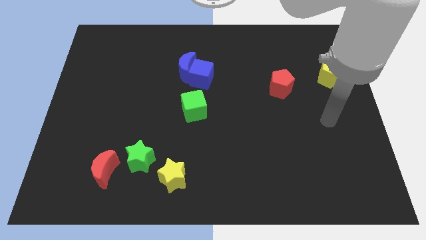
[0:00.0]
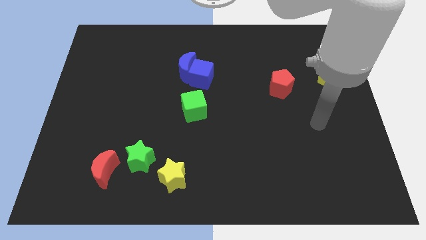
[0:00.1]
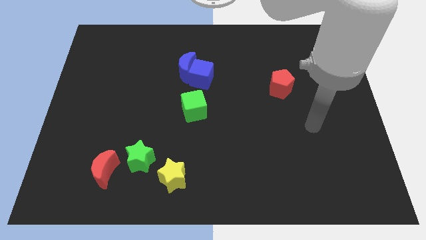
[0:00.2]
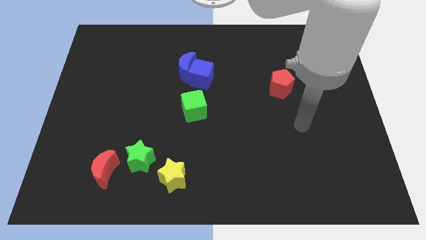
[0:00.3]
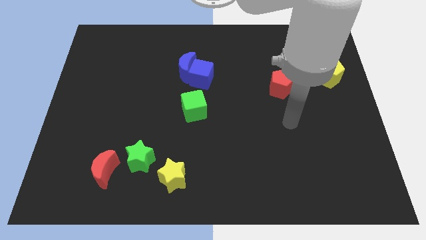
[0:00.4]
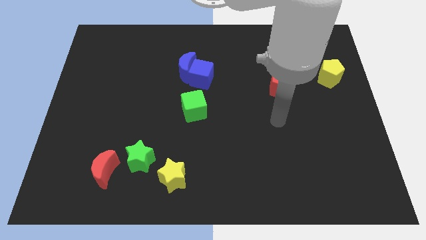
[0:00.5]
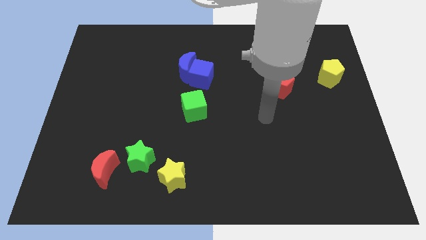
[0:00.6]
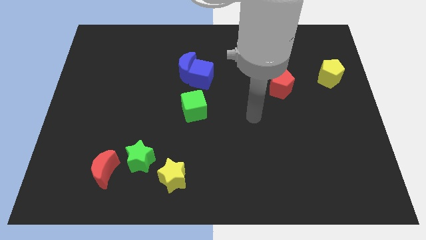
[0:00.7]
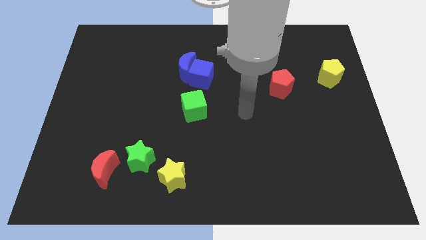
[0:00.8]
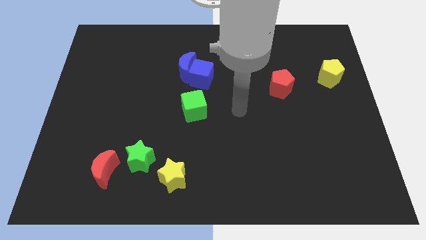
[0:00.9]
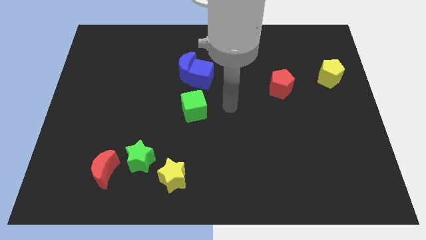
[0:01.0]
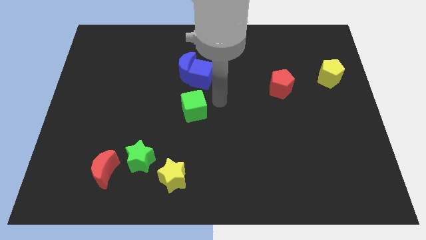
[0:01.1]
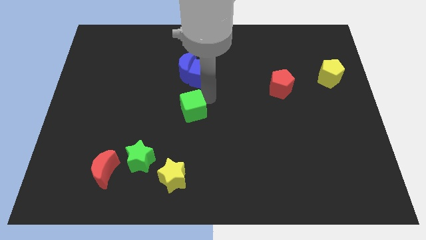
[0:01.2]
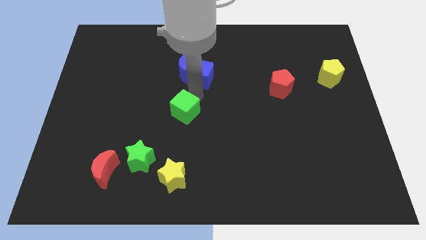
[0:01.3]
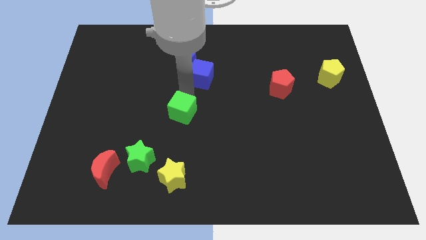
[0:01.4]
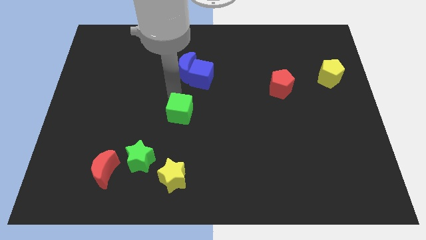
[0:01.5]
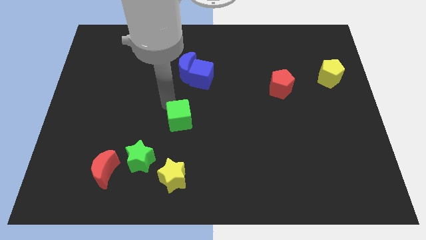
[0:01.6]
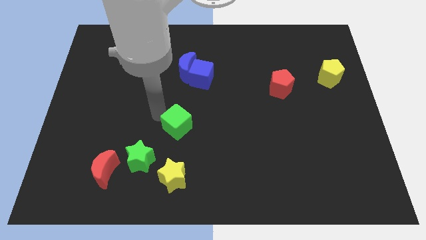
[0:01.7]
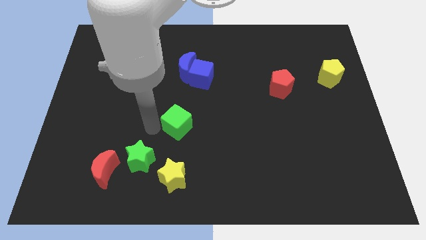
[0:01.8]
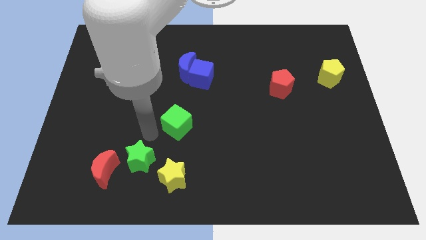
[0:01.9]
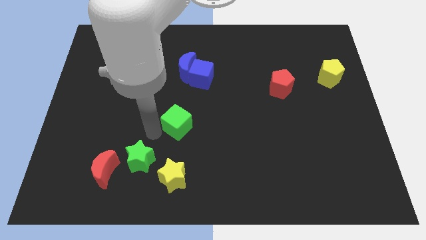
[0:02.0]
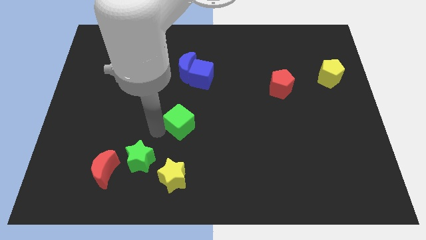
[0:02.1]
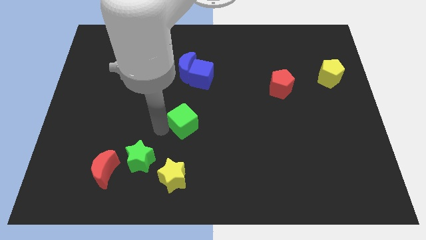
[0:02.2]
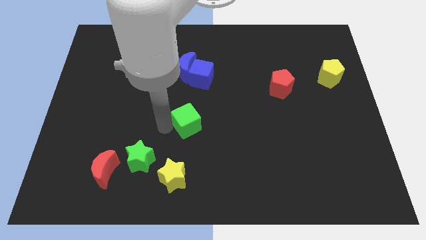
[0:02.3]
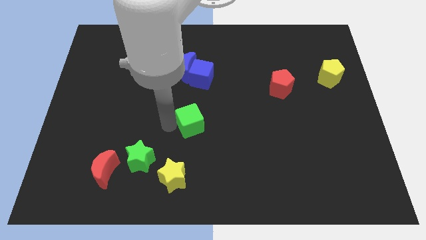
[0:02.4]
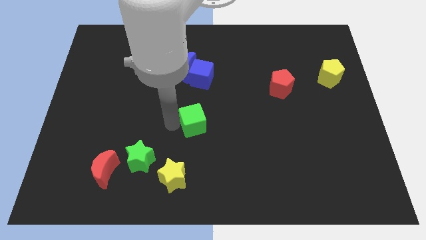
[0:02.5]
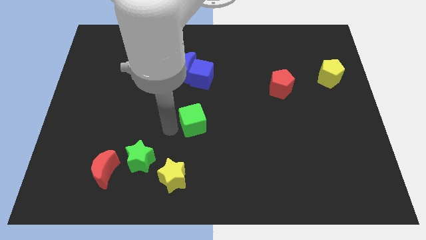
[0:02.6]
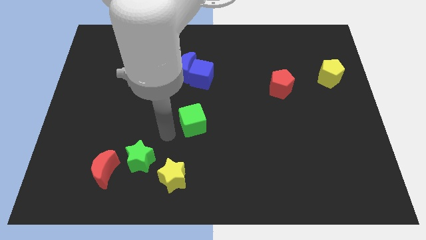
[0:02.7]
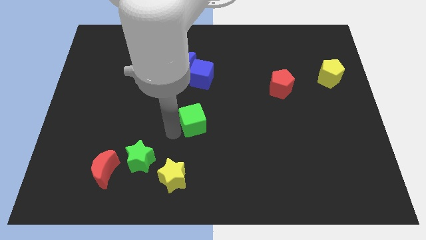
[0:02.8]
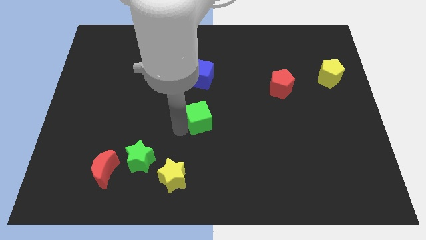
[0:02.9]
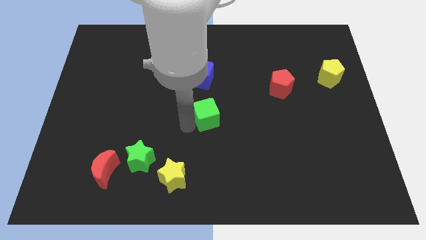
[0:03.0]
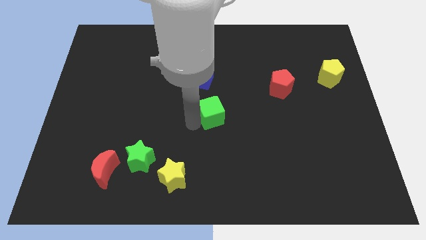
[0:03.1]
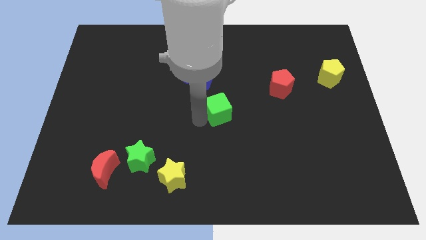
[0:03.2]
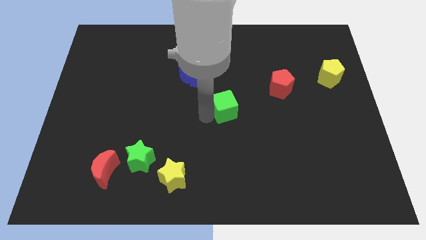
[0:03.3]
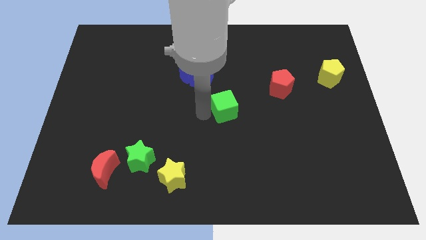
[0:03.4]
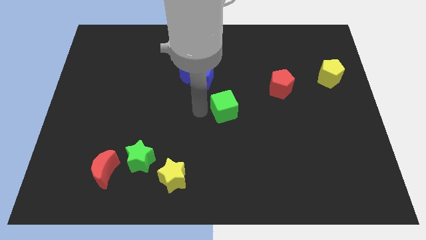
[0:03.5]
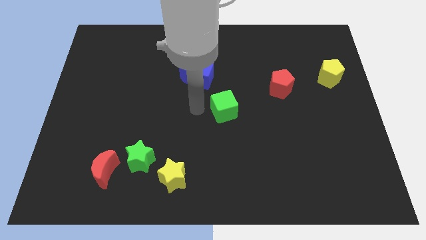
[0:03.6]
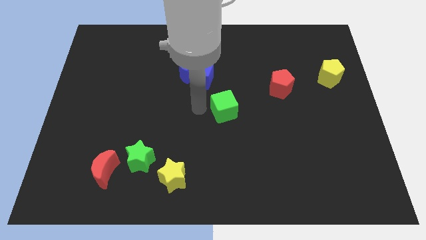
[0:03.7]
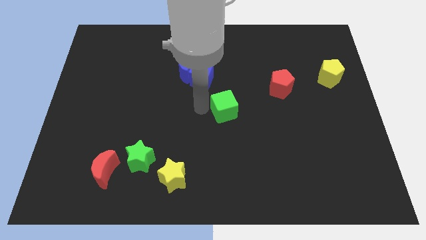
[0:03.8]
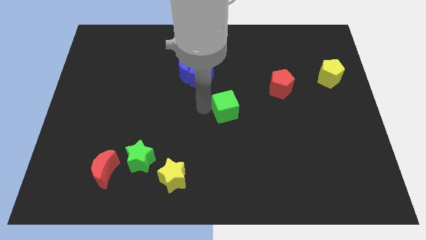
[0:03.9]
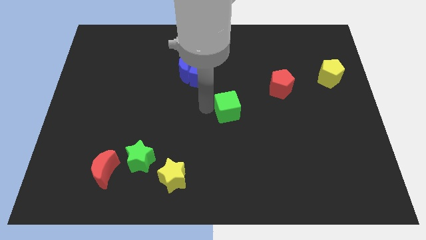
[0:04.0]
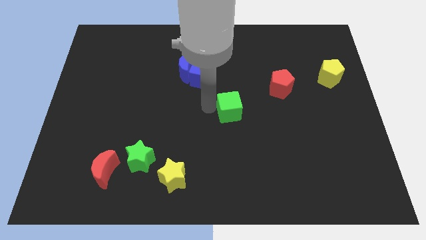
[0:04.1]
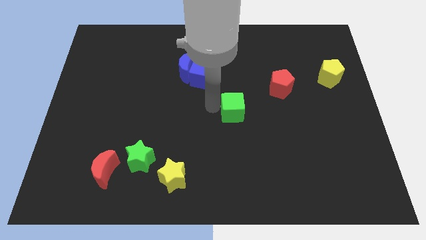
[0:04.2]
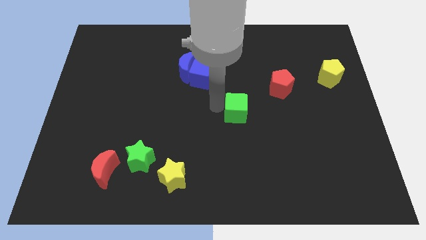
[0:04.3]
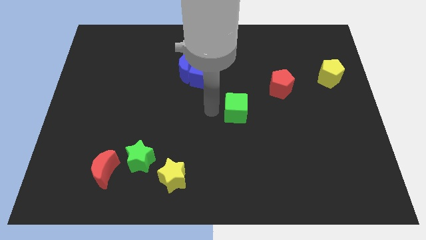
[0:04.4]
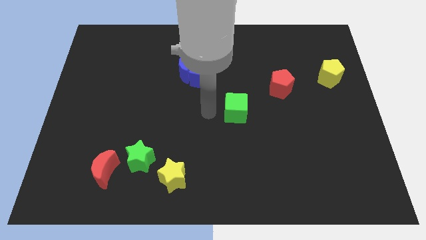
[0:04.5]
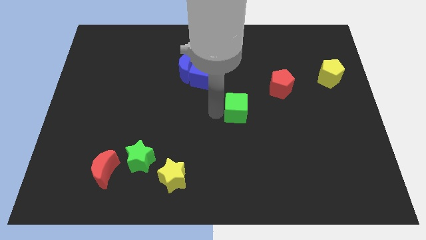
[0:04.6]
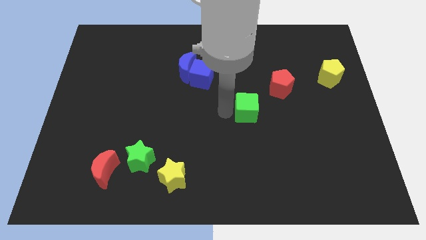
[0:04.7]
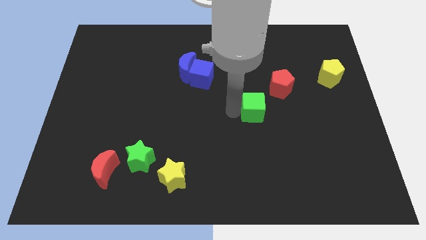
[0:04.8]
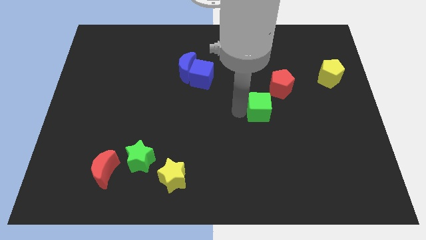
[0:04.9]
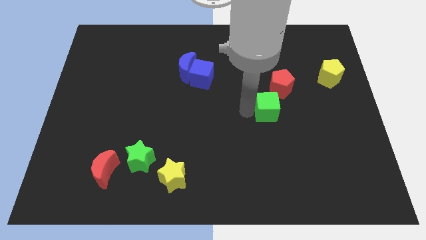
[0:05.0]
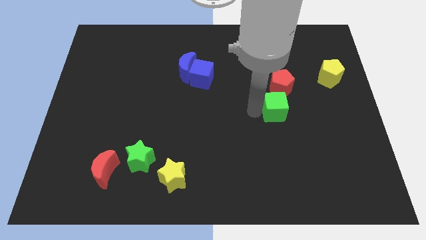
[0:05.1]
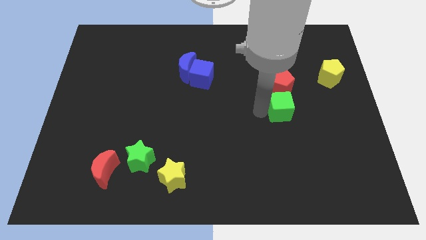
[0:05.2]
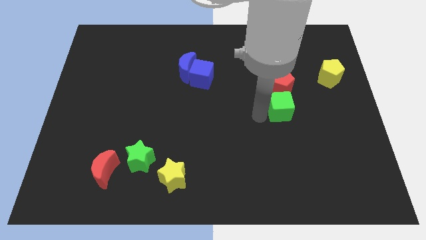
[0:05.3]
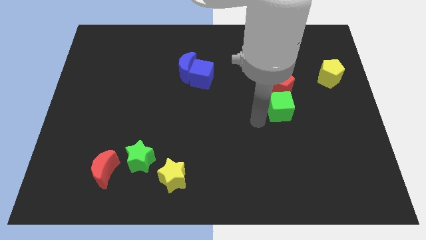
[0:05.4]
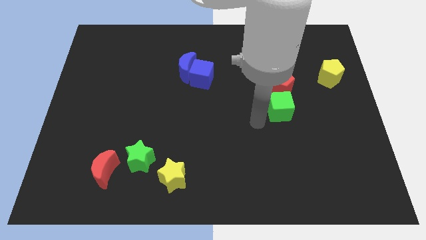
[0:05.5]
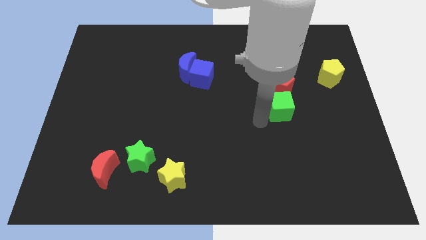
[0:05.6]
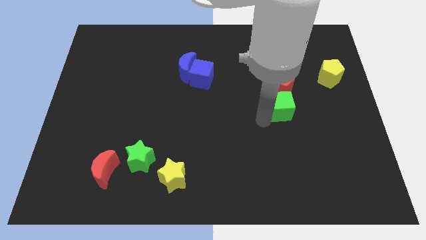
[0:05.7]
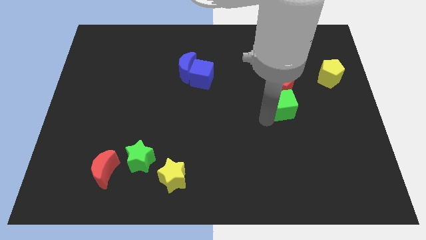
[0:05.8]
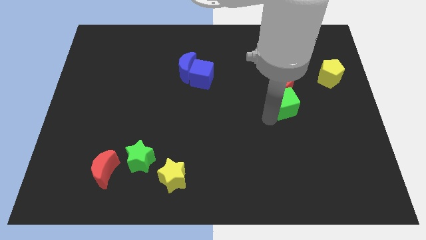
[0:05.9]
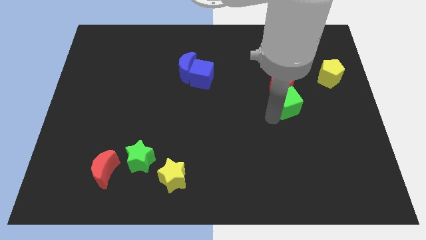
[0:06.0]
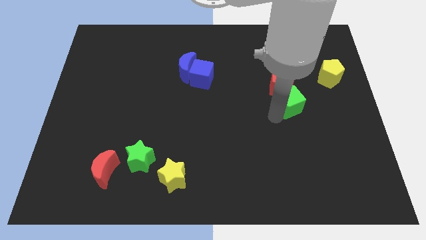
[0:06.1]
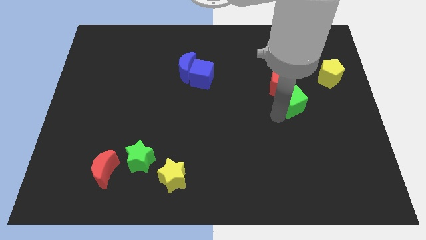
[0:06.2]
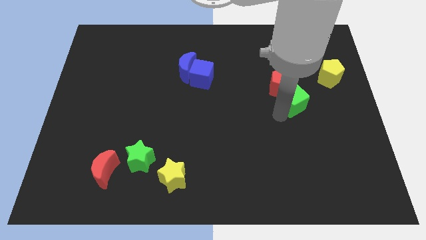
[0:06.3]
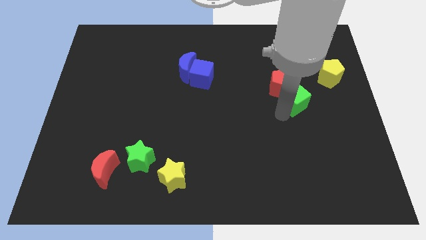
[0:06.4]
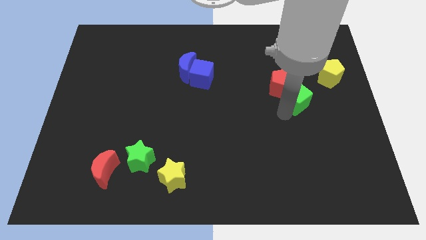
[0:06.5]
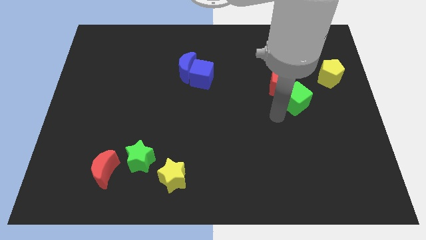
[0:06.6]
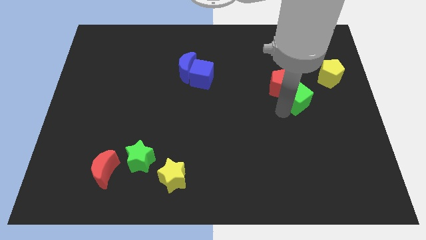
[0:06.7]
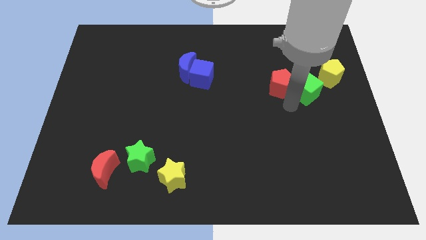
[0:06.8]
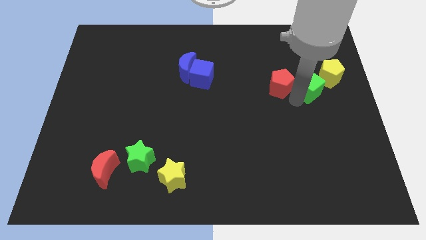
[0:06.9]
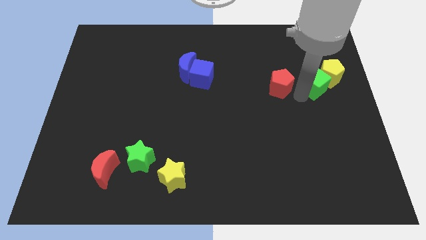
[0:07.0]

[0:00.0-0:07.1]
put the green cube to the yellow pentagon
